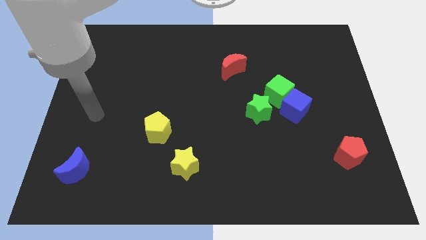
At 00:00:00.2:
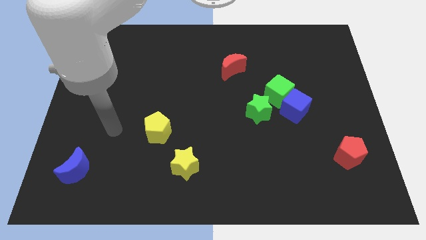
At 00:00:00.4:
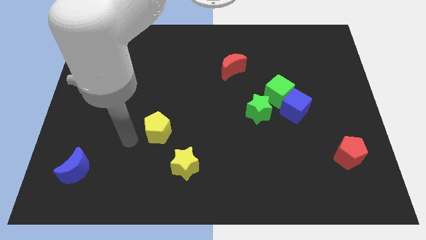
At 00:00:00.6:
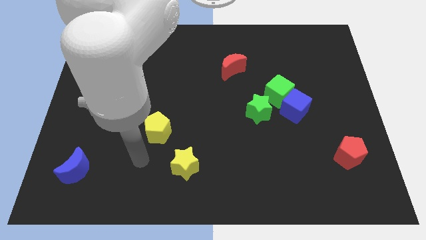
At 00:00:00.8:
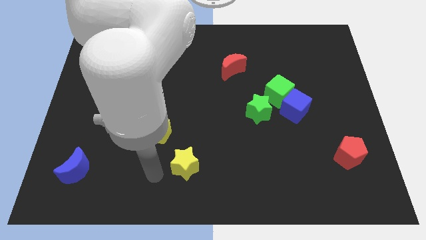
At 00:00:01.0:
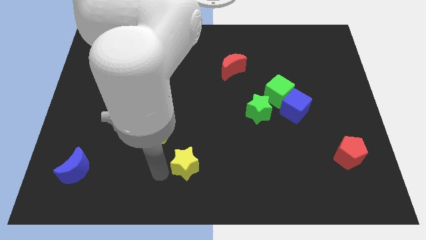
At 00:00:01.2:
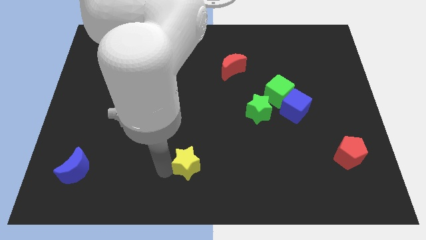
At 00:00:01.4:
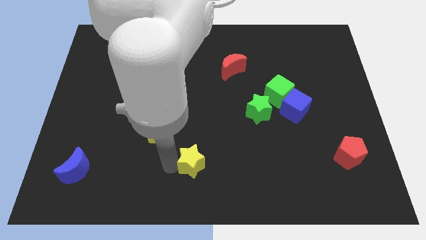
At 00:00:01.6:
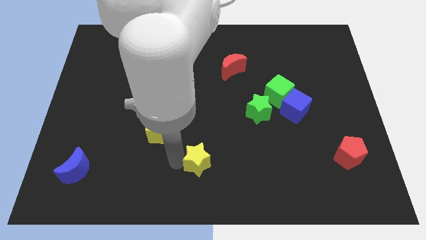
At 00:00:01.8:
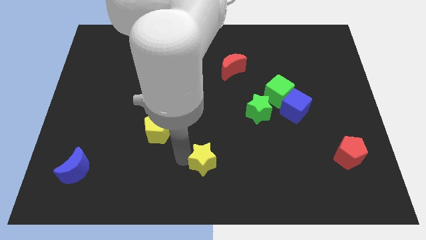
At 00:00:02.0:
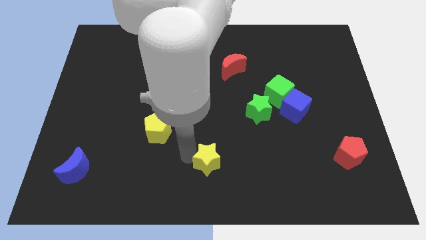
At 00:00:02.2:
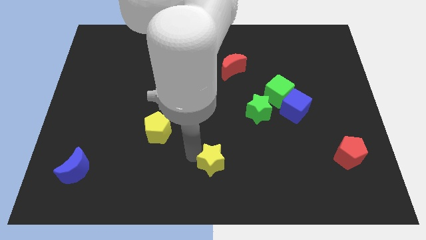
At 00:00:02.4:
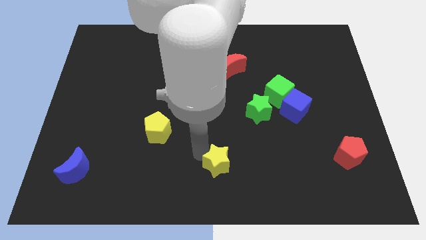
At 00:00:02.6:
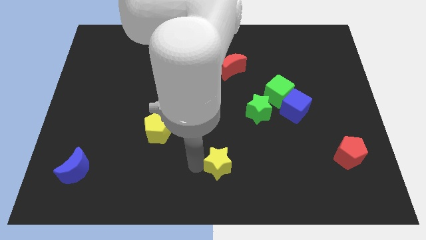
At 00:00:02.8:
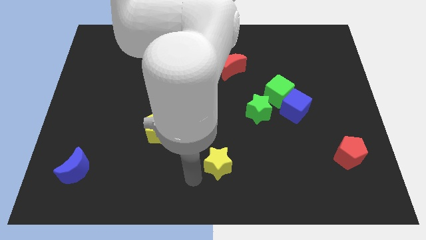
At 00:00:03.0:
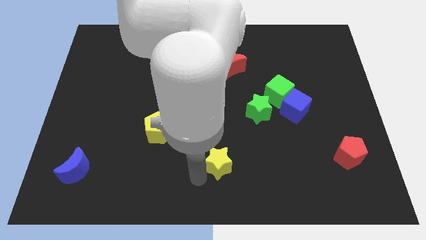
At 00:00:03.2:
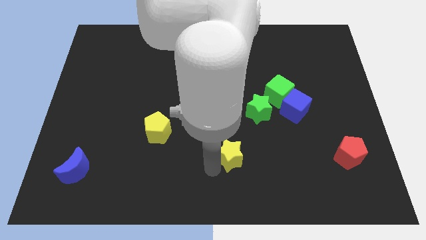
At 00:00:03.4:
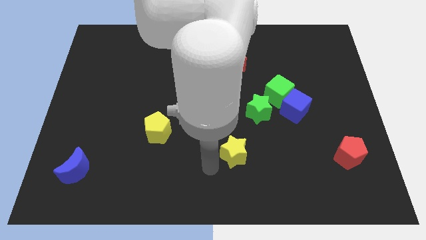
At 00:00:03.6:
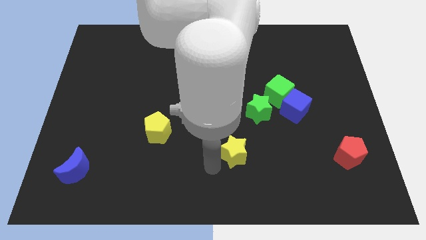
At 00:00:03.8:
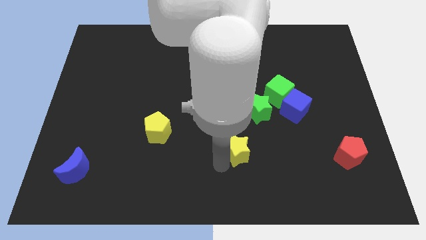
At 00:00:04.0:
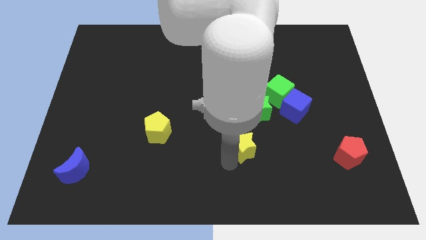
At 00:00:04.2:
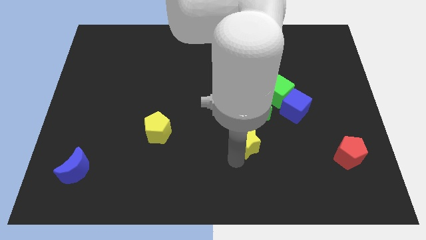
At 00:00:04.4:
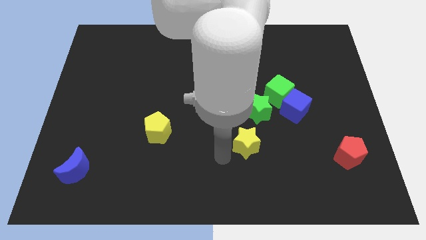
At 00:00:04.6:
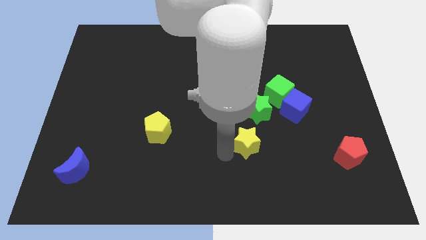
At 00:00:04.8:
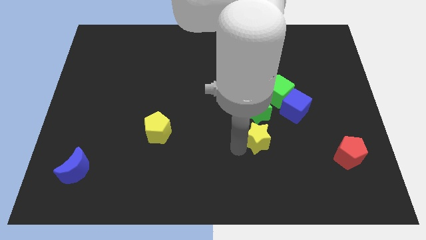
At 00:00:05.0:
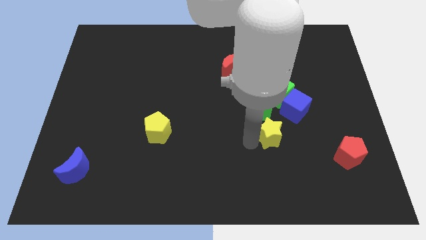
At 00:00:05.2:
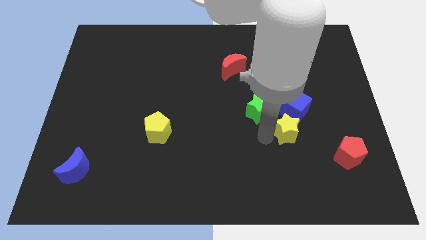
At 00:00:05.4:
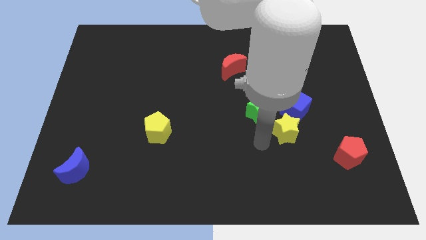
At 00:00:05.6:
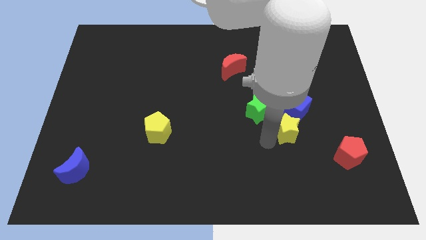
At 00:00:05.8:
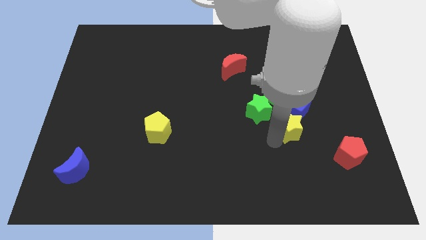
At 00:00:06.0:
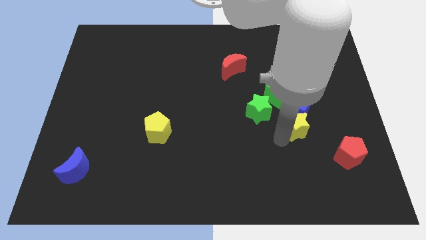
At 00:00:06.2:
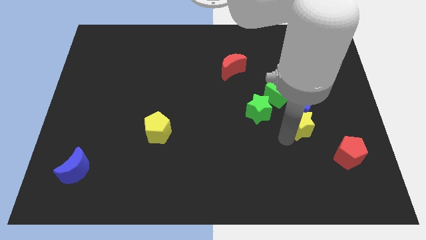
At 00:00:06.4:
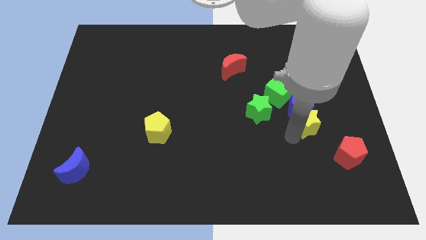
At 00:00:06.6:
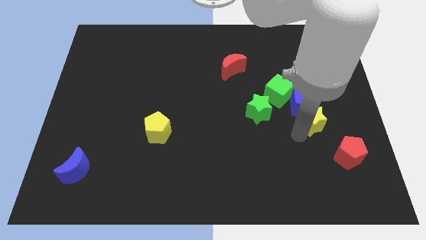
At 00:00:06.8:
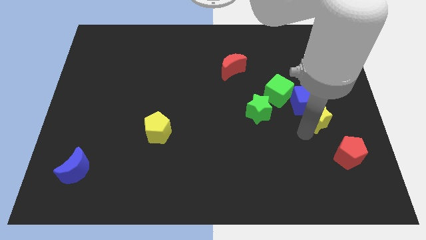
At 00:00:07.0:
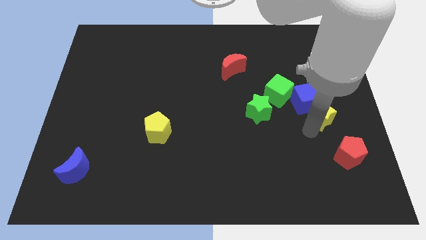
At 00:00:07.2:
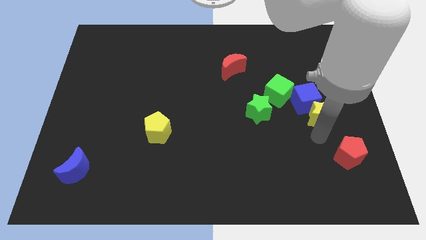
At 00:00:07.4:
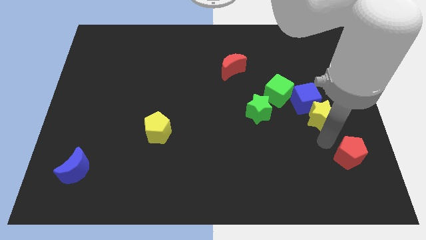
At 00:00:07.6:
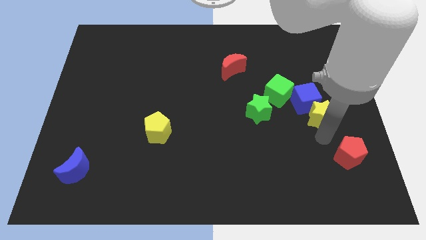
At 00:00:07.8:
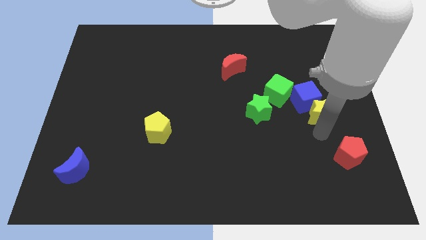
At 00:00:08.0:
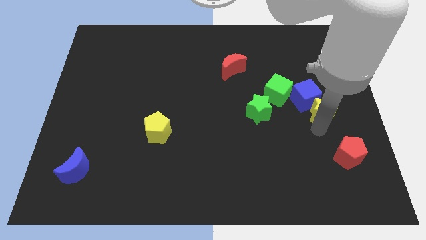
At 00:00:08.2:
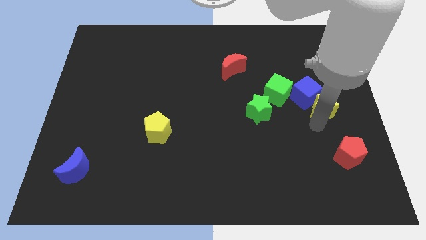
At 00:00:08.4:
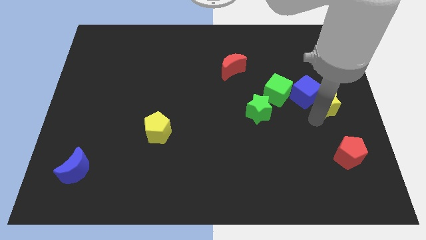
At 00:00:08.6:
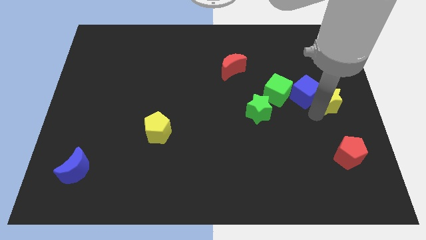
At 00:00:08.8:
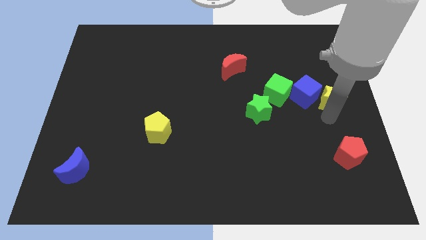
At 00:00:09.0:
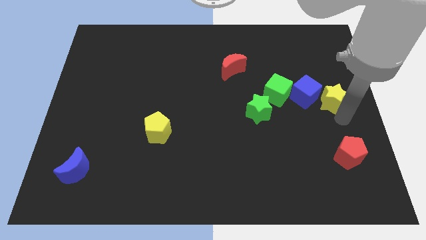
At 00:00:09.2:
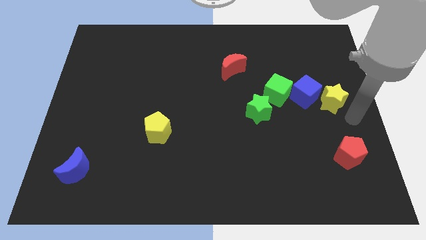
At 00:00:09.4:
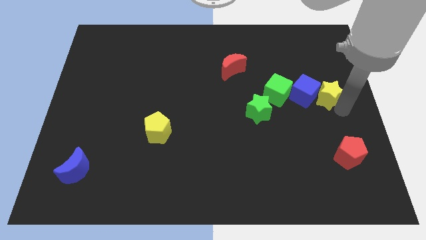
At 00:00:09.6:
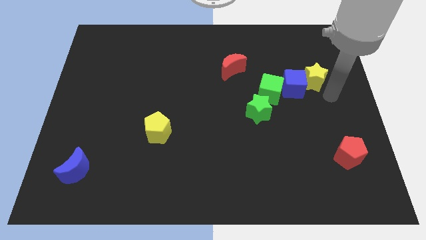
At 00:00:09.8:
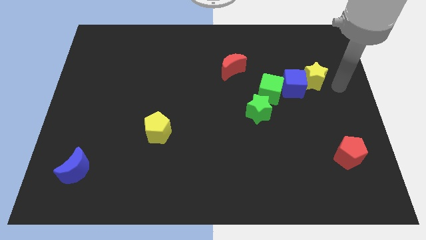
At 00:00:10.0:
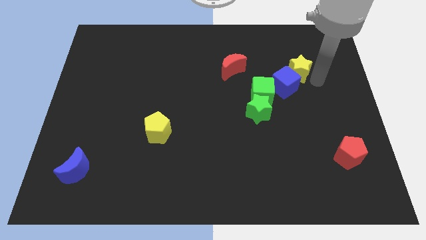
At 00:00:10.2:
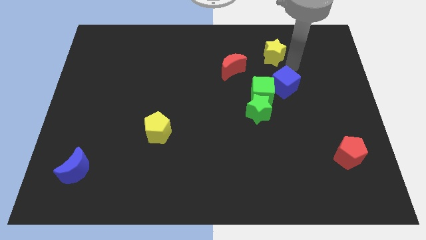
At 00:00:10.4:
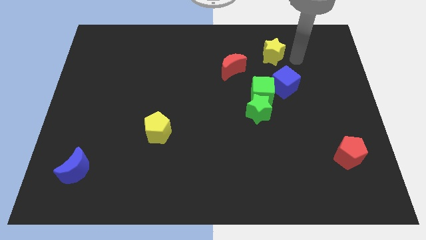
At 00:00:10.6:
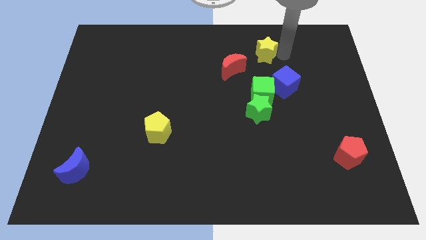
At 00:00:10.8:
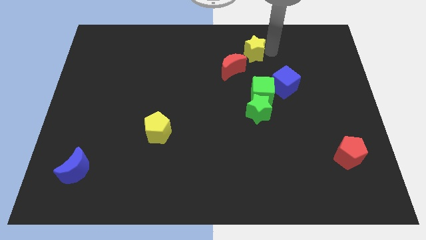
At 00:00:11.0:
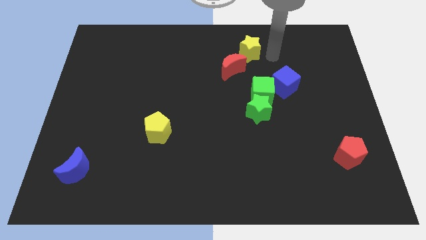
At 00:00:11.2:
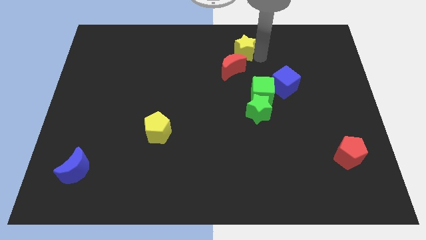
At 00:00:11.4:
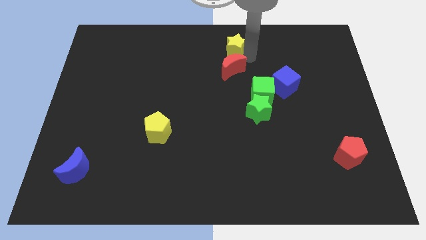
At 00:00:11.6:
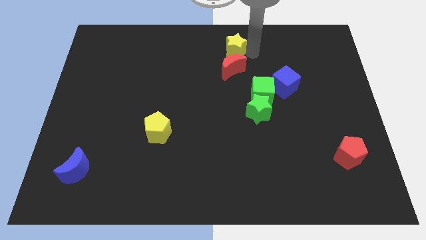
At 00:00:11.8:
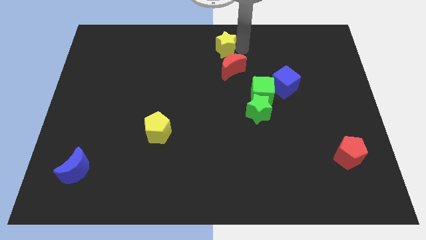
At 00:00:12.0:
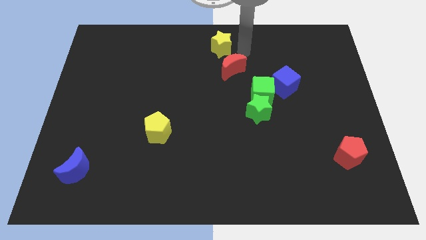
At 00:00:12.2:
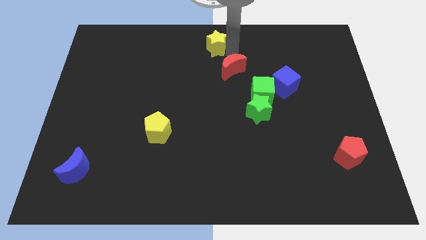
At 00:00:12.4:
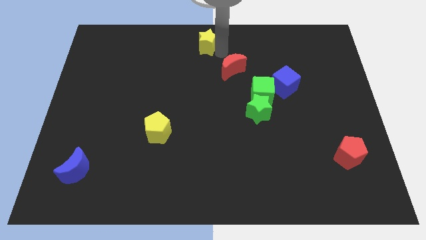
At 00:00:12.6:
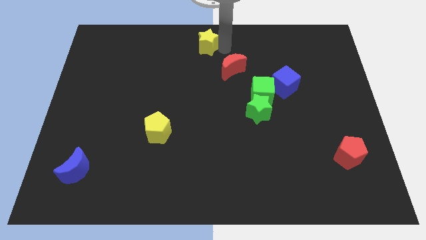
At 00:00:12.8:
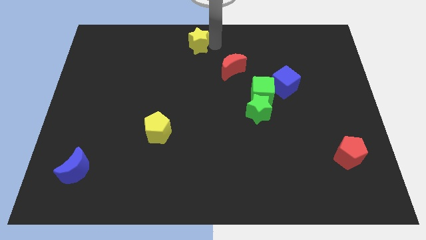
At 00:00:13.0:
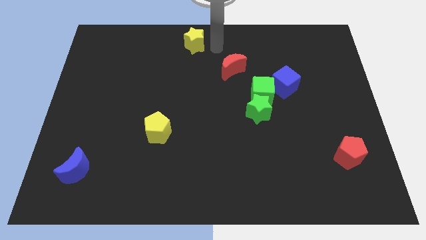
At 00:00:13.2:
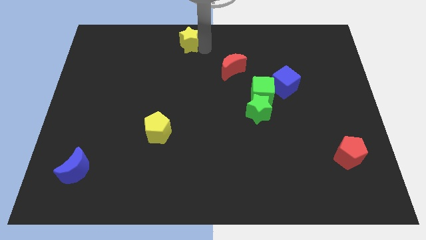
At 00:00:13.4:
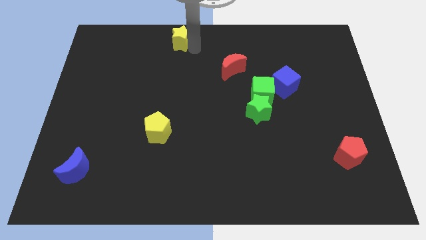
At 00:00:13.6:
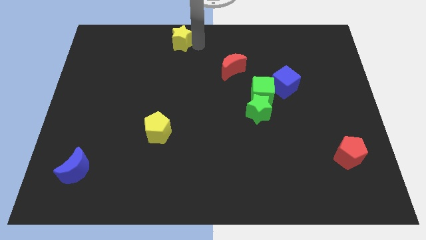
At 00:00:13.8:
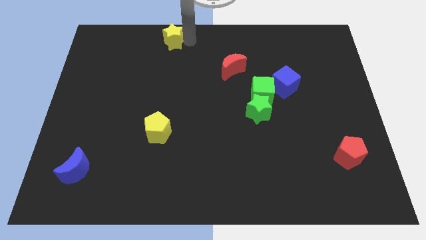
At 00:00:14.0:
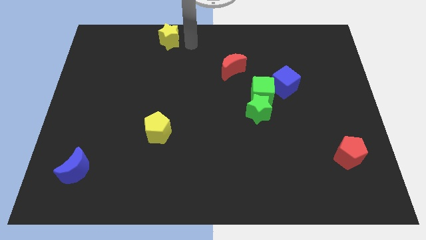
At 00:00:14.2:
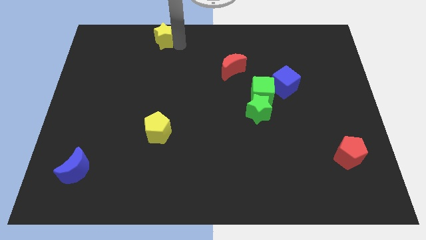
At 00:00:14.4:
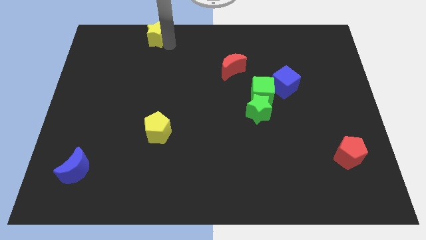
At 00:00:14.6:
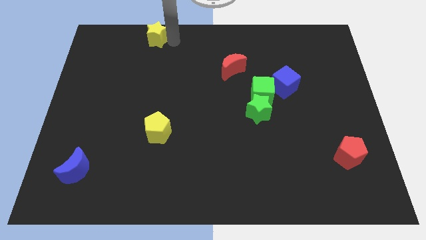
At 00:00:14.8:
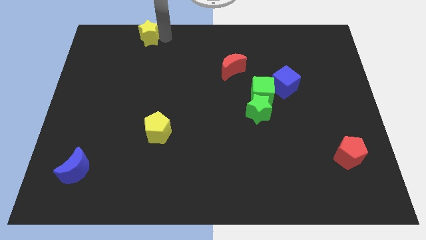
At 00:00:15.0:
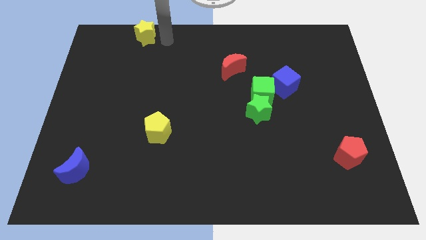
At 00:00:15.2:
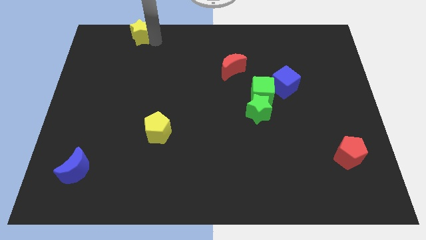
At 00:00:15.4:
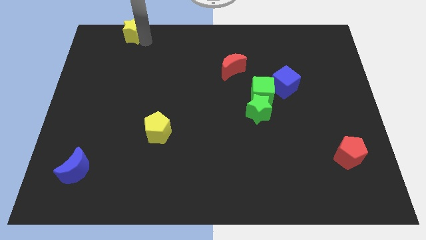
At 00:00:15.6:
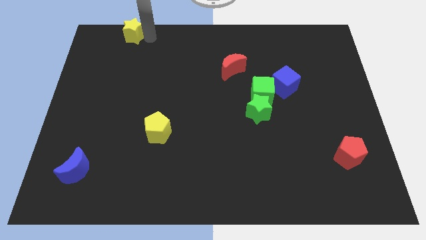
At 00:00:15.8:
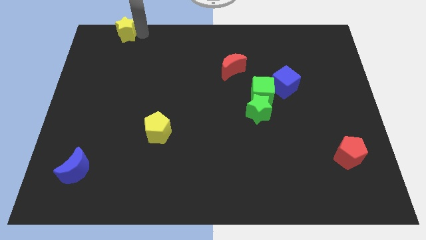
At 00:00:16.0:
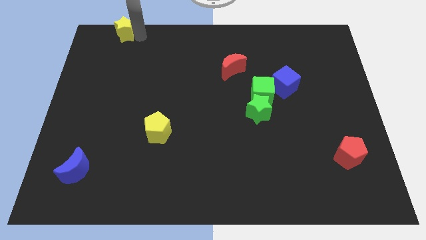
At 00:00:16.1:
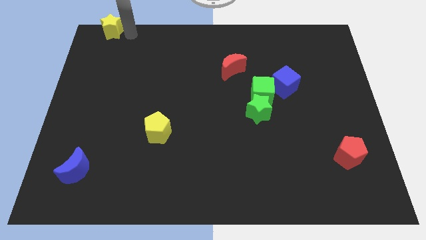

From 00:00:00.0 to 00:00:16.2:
move the yellow star to the top left corner
